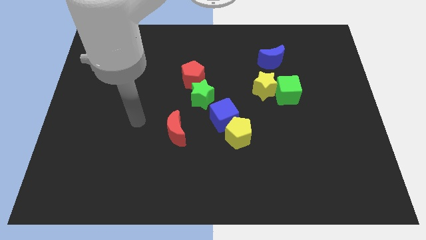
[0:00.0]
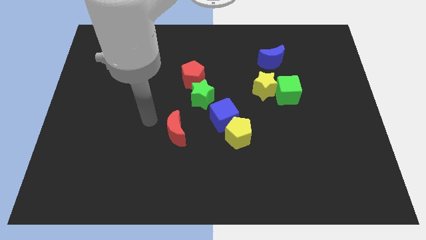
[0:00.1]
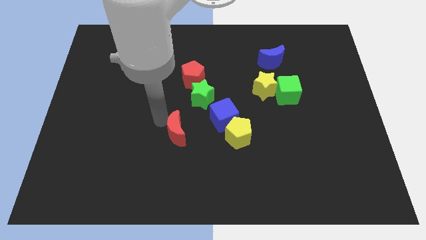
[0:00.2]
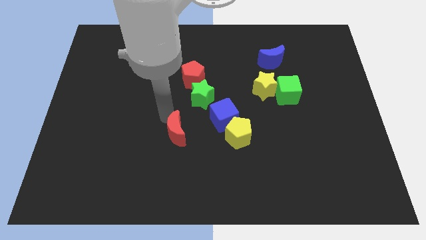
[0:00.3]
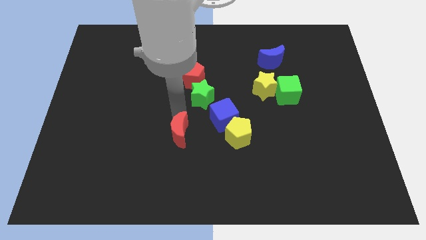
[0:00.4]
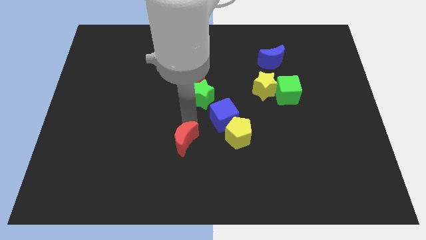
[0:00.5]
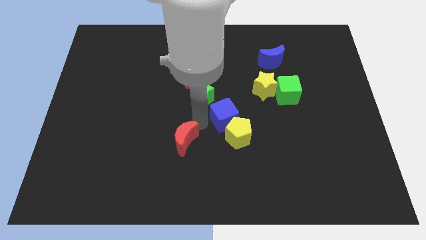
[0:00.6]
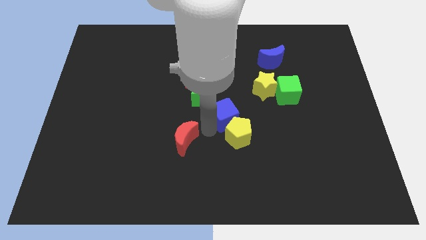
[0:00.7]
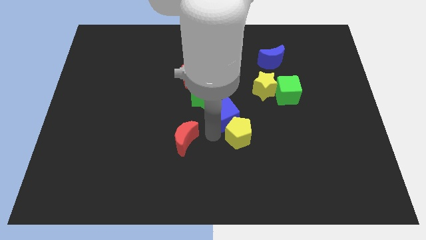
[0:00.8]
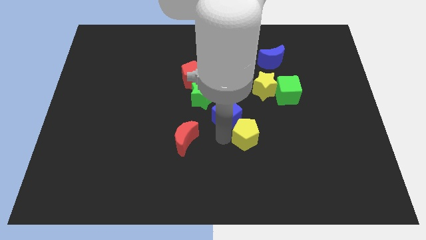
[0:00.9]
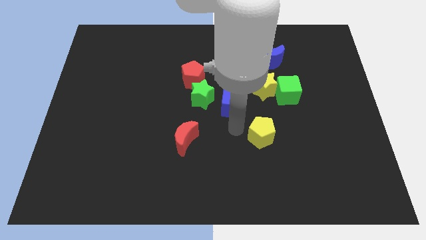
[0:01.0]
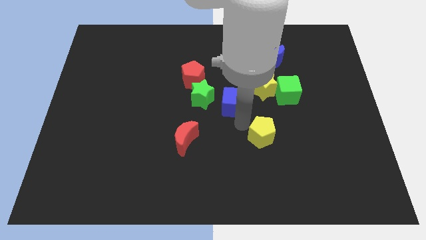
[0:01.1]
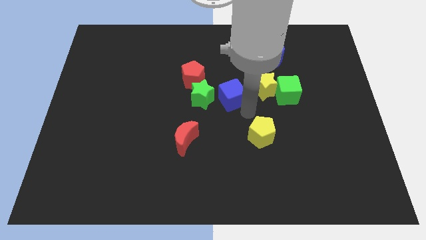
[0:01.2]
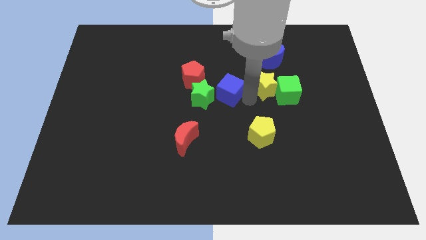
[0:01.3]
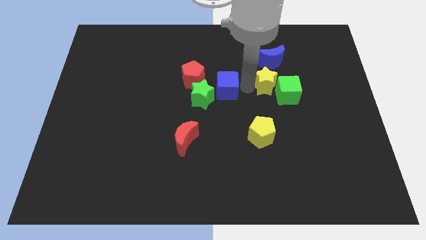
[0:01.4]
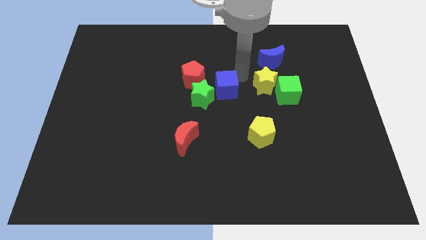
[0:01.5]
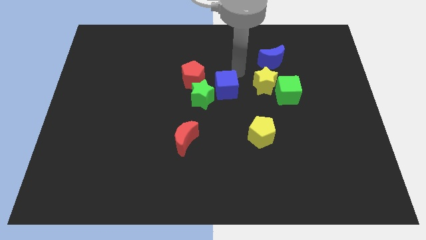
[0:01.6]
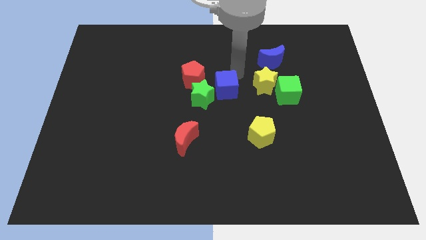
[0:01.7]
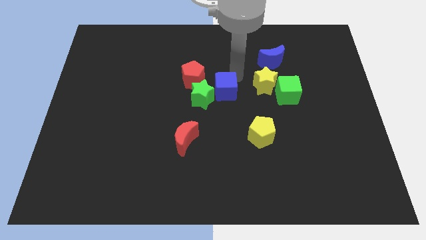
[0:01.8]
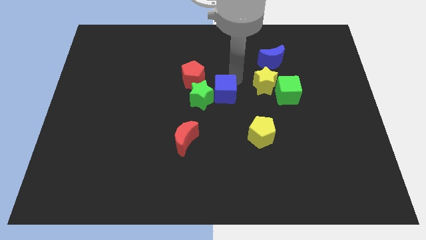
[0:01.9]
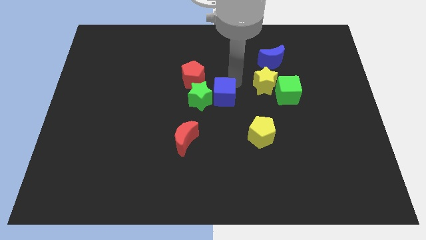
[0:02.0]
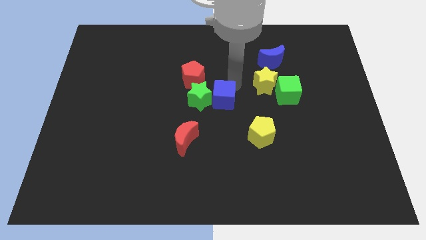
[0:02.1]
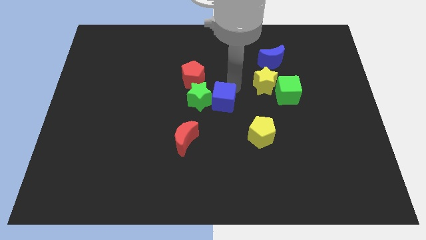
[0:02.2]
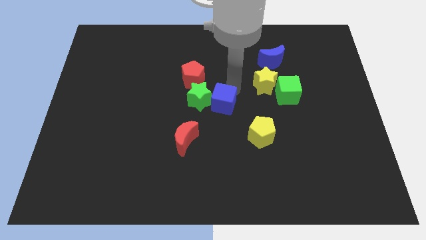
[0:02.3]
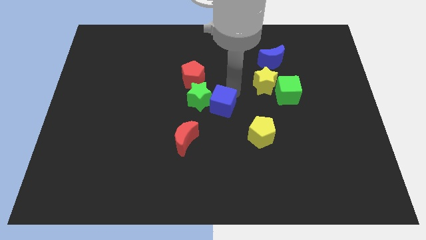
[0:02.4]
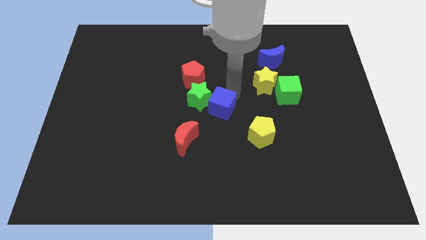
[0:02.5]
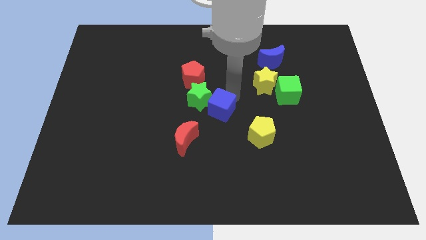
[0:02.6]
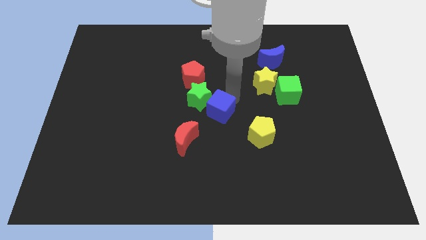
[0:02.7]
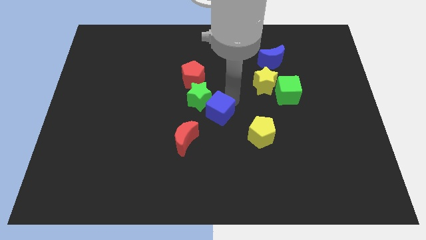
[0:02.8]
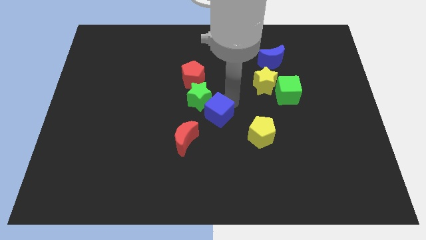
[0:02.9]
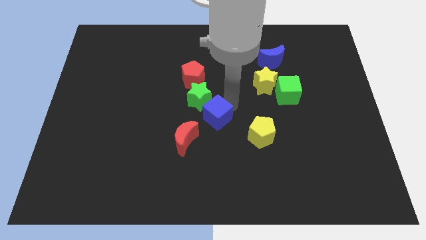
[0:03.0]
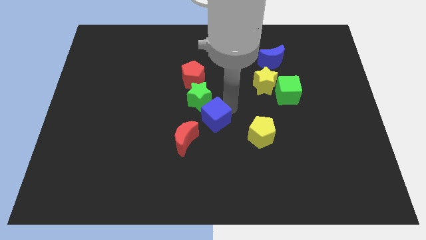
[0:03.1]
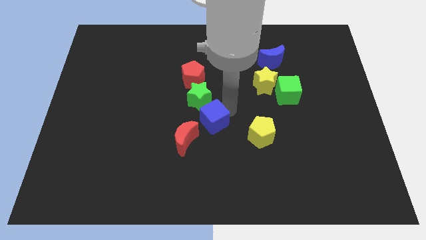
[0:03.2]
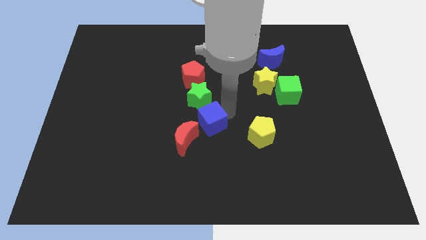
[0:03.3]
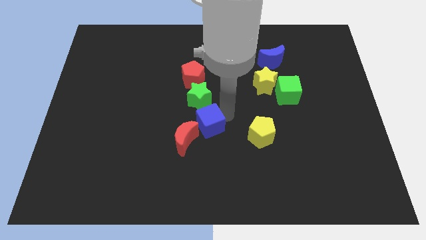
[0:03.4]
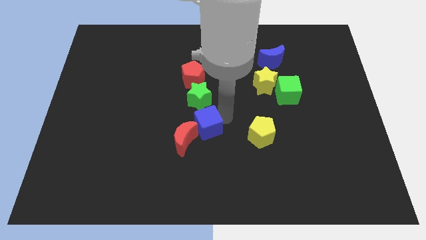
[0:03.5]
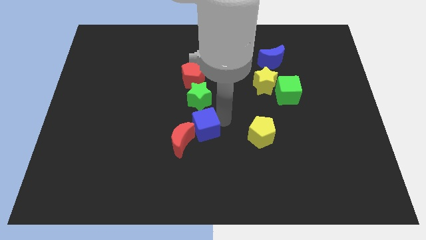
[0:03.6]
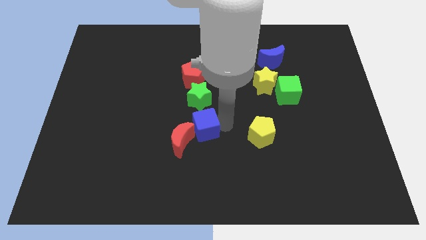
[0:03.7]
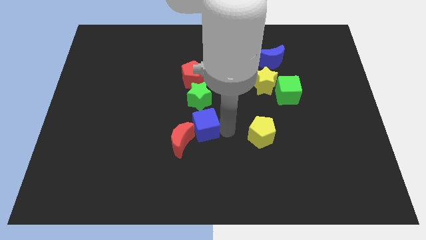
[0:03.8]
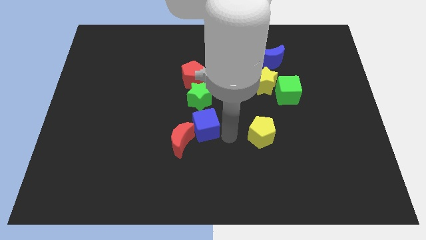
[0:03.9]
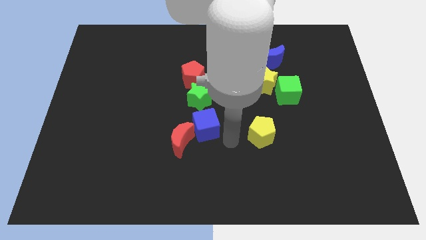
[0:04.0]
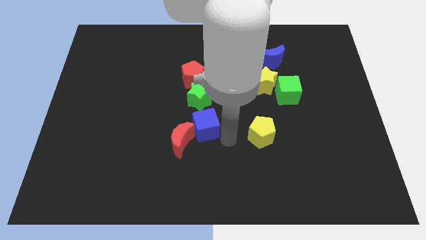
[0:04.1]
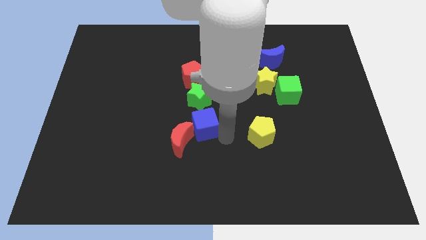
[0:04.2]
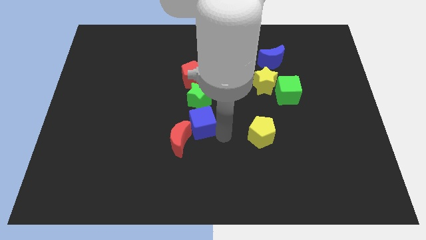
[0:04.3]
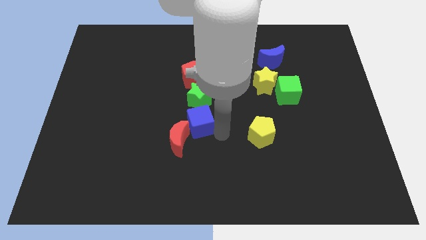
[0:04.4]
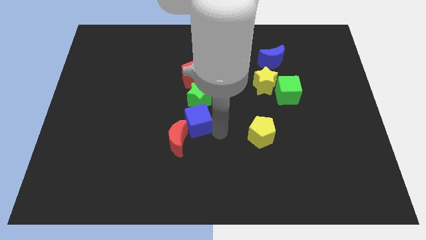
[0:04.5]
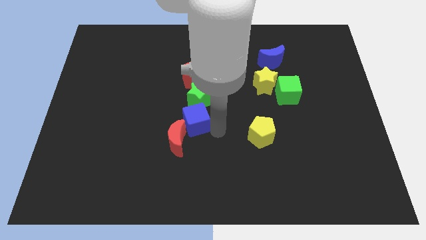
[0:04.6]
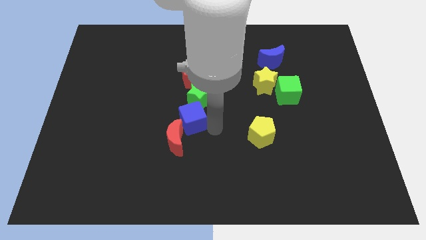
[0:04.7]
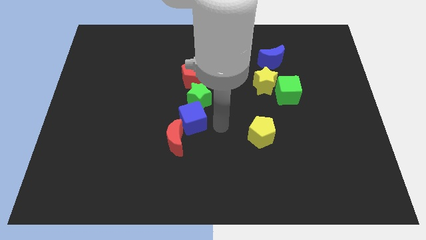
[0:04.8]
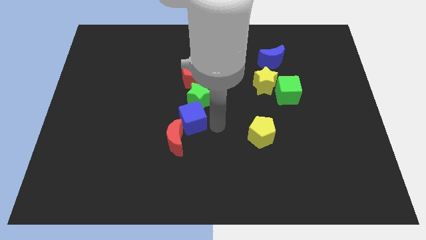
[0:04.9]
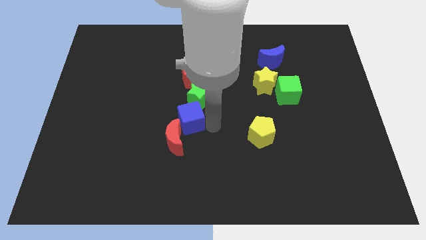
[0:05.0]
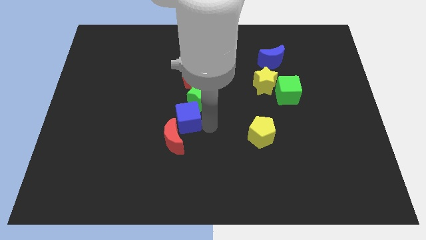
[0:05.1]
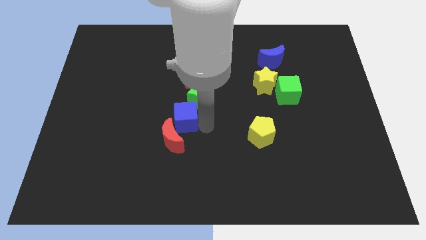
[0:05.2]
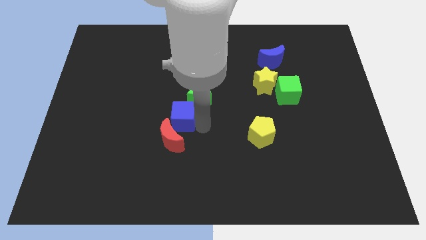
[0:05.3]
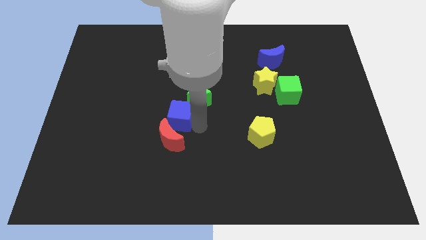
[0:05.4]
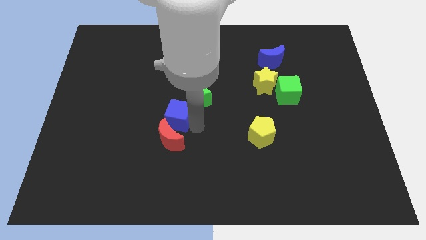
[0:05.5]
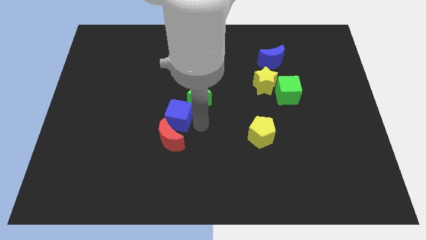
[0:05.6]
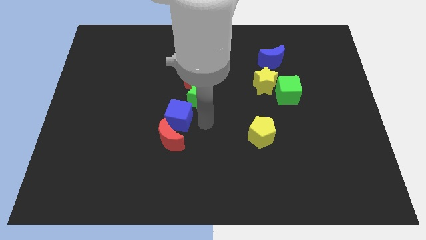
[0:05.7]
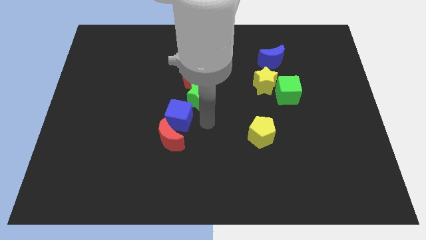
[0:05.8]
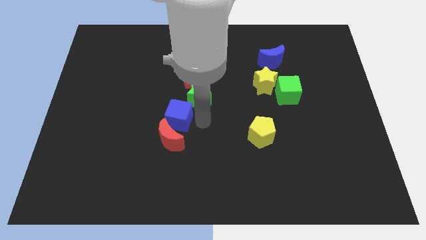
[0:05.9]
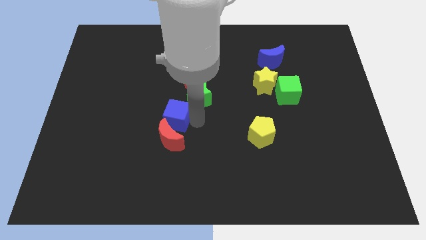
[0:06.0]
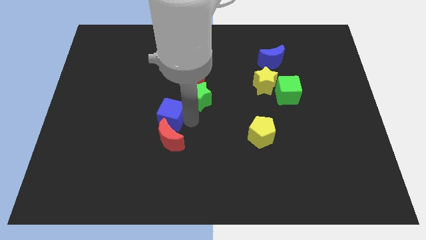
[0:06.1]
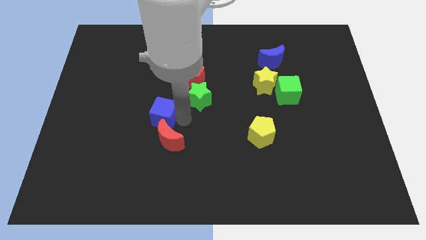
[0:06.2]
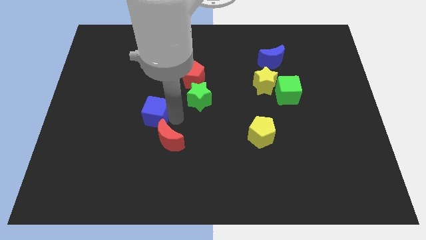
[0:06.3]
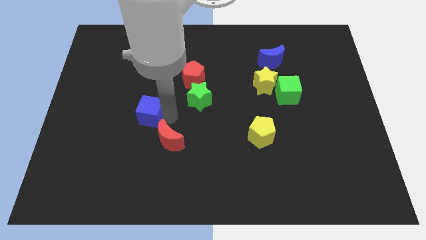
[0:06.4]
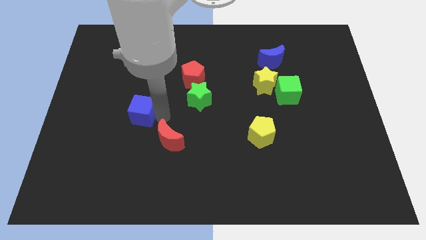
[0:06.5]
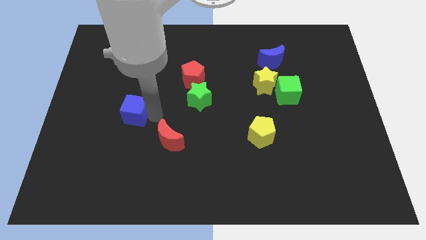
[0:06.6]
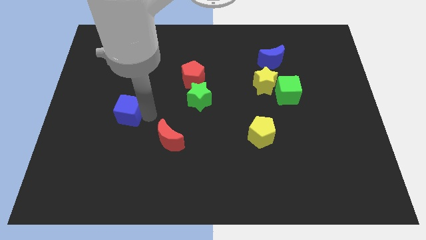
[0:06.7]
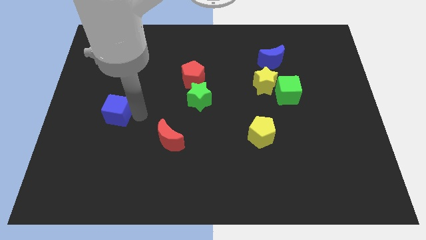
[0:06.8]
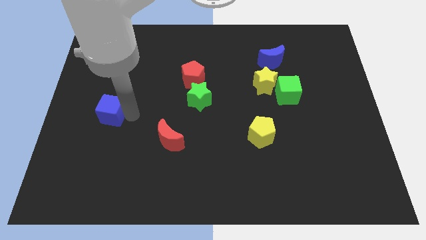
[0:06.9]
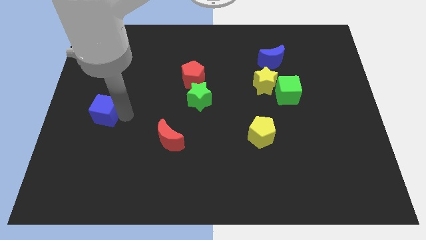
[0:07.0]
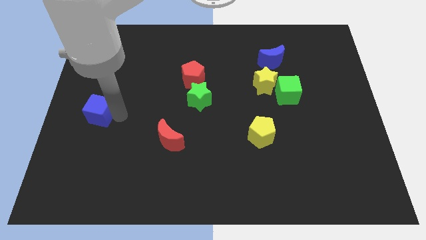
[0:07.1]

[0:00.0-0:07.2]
move the blue cube to the left side of the board

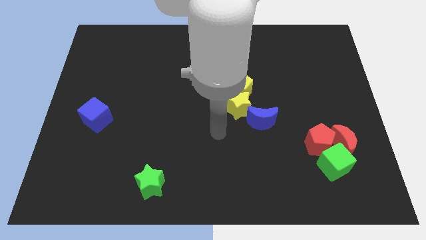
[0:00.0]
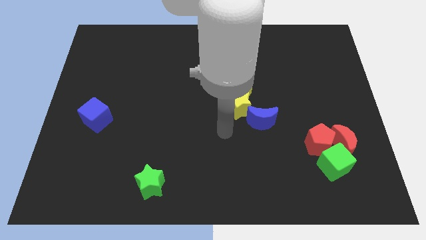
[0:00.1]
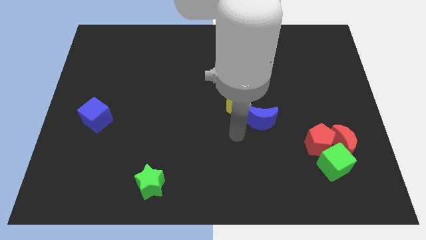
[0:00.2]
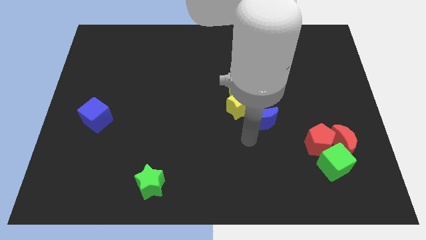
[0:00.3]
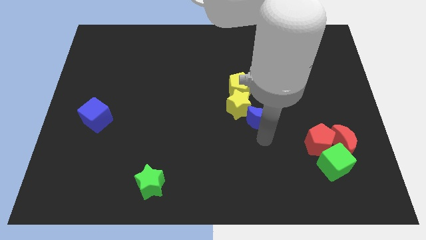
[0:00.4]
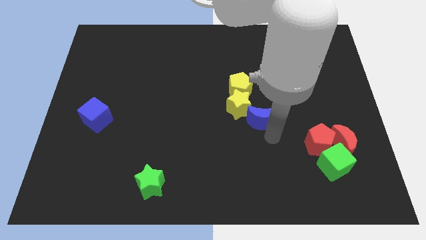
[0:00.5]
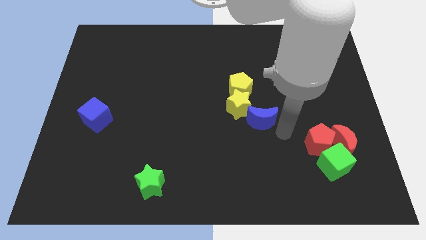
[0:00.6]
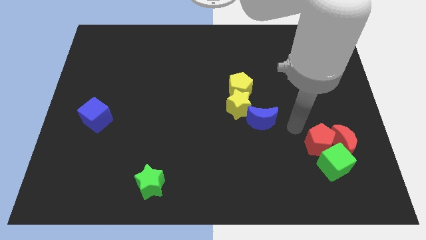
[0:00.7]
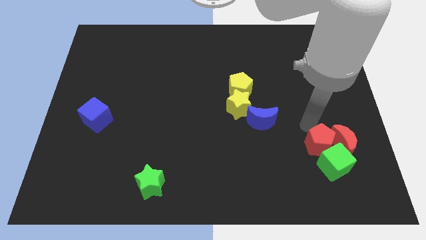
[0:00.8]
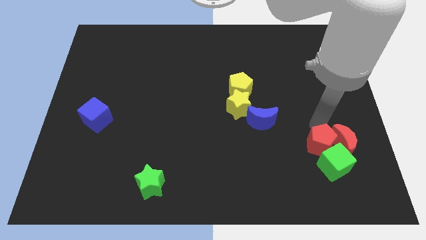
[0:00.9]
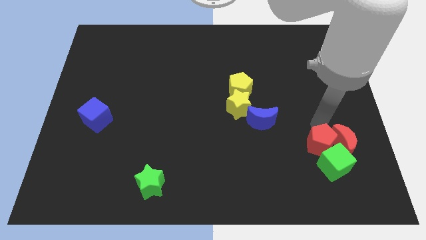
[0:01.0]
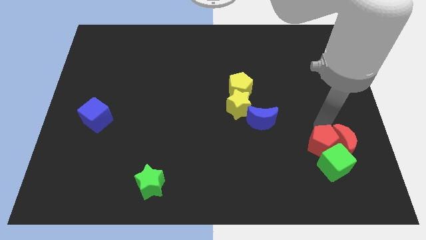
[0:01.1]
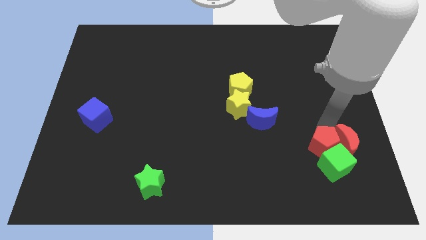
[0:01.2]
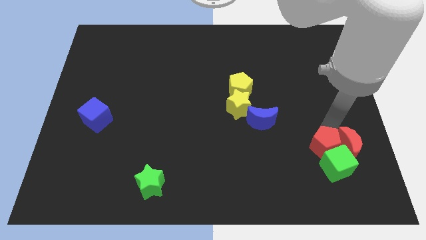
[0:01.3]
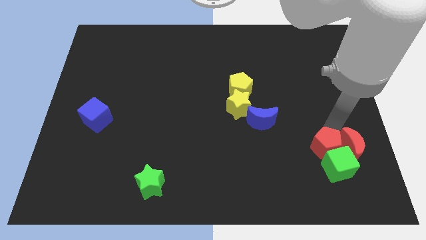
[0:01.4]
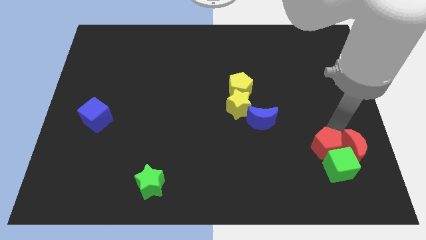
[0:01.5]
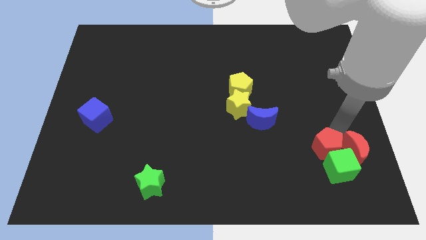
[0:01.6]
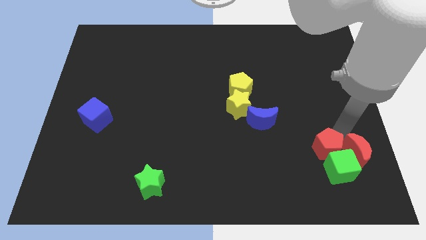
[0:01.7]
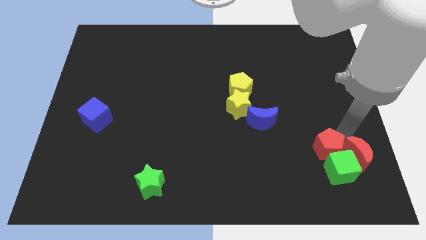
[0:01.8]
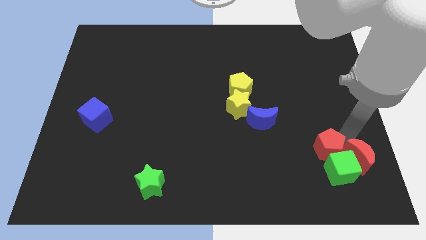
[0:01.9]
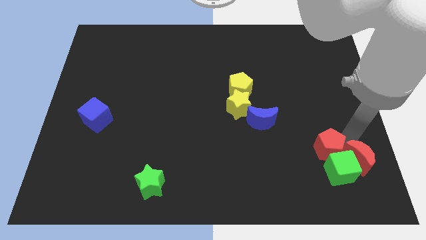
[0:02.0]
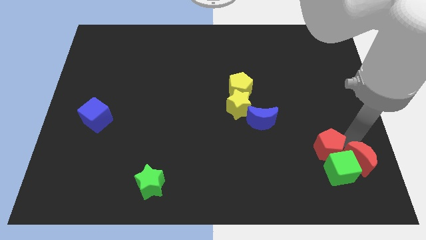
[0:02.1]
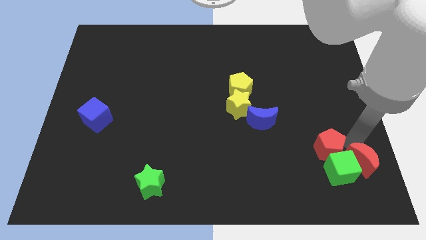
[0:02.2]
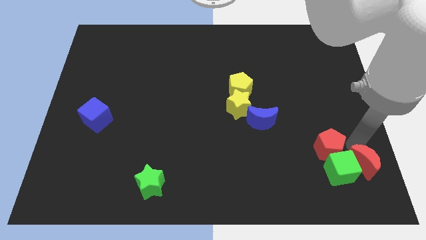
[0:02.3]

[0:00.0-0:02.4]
push the red moon to the lower right corner
